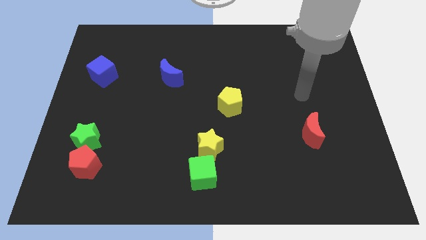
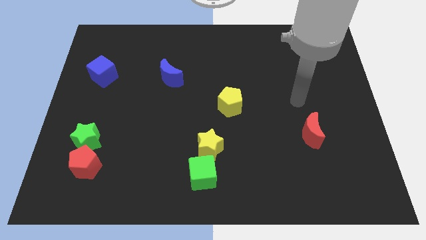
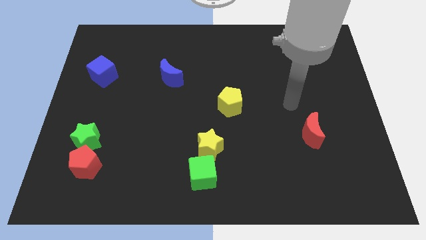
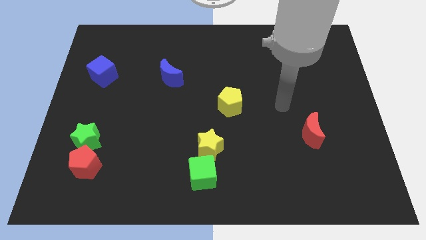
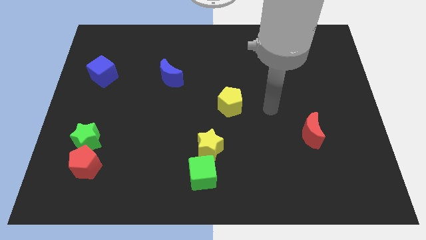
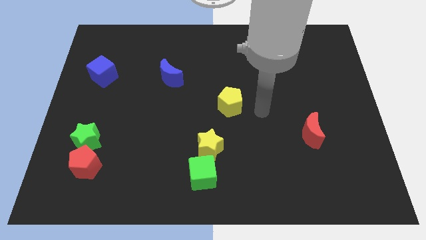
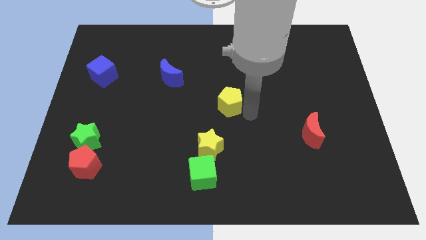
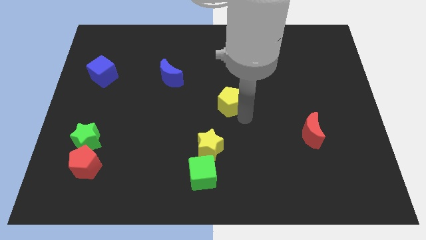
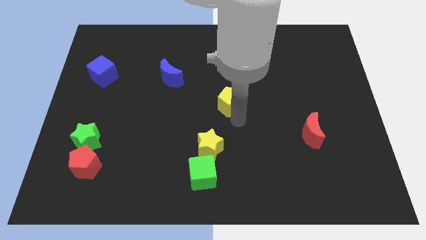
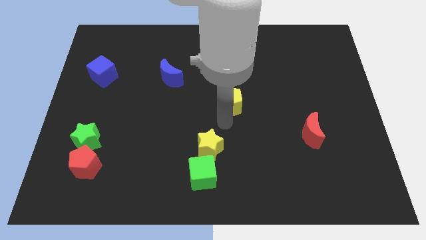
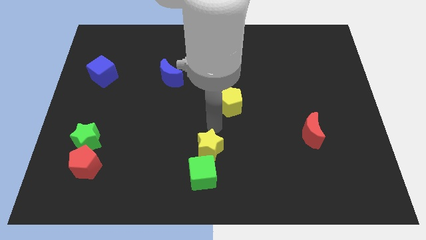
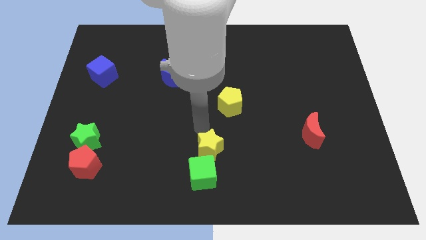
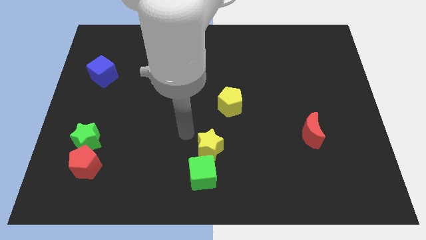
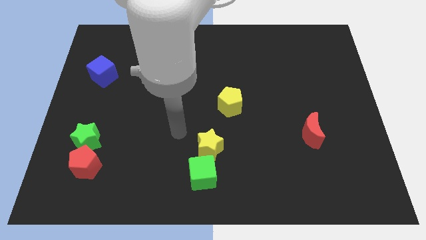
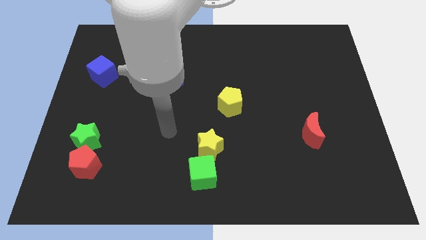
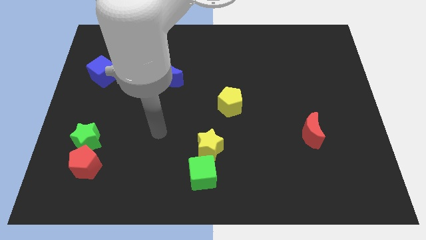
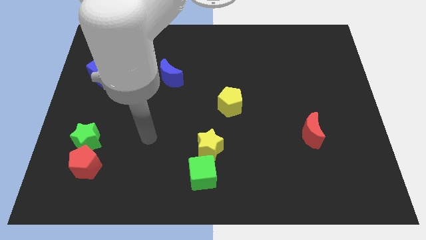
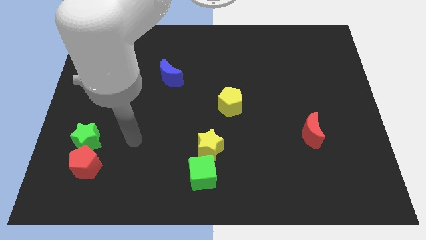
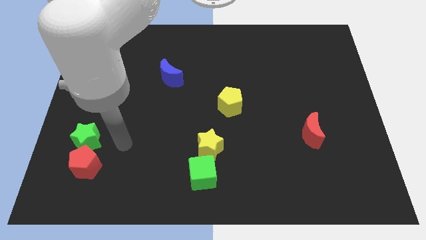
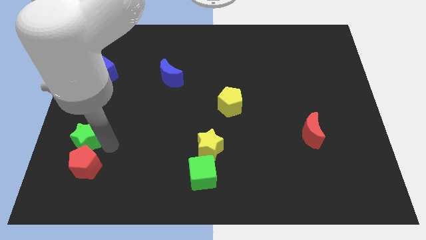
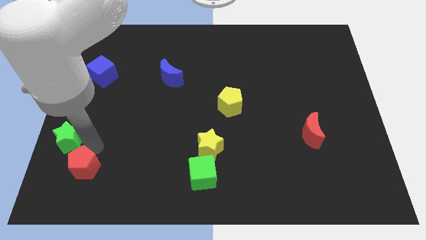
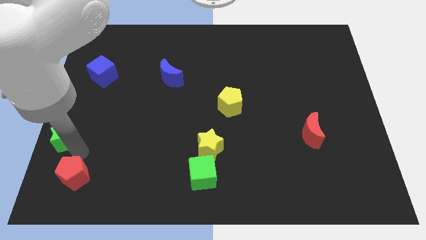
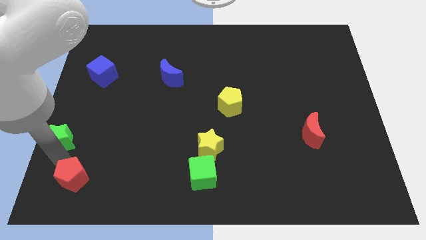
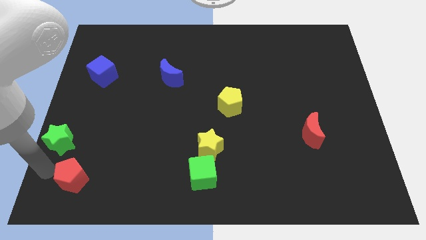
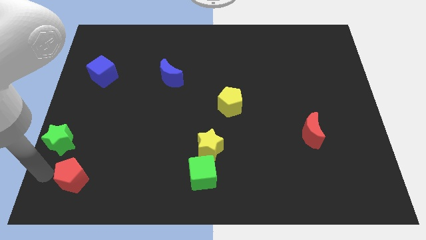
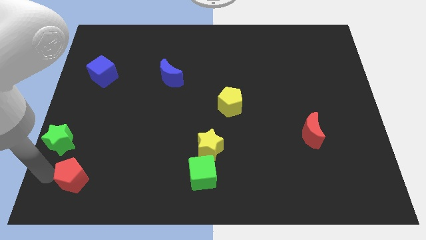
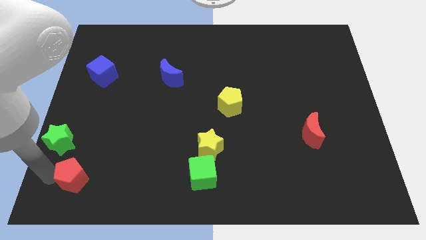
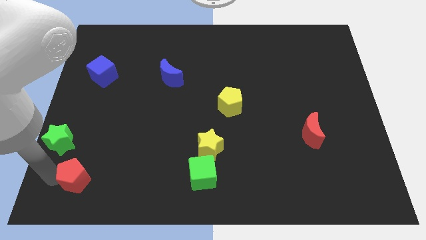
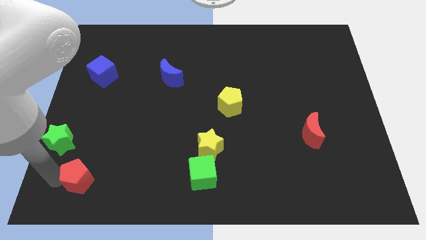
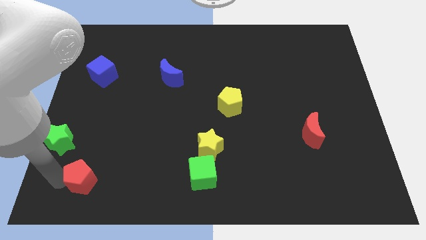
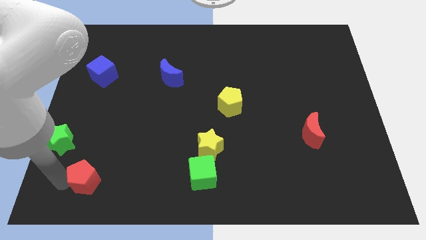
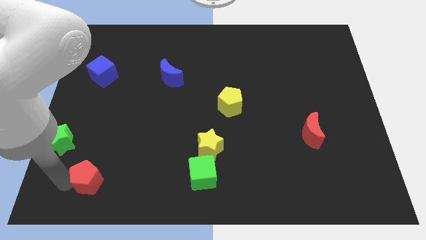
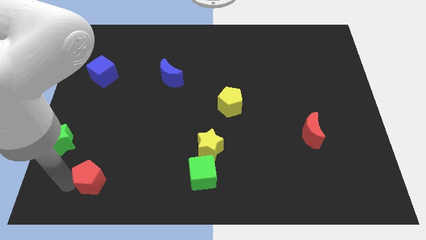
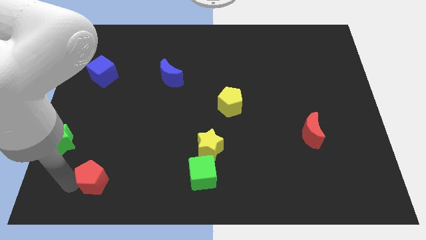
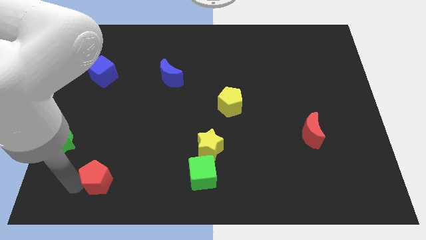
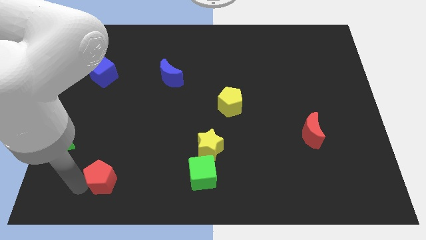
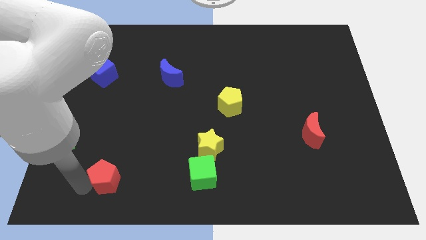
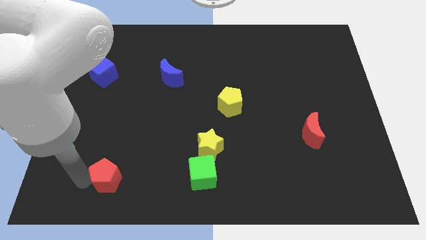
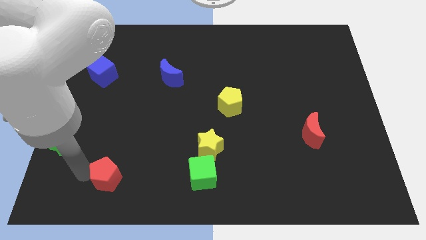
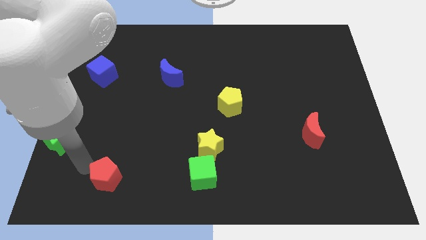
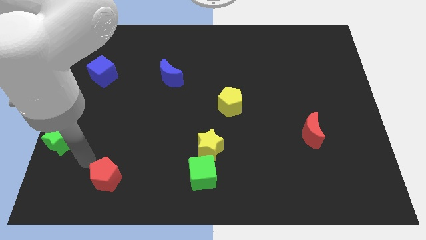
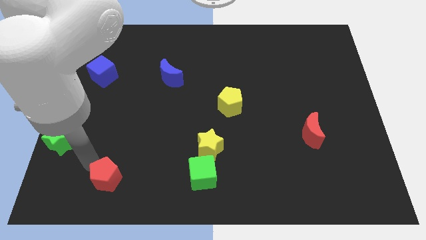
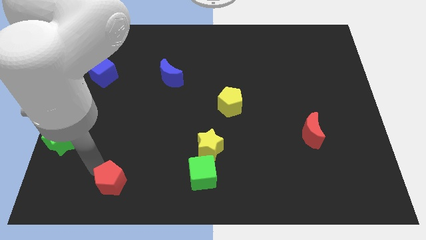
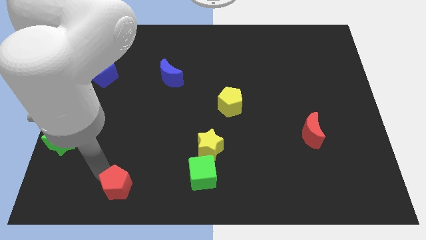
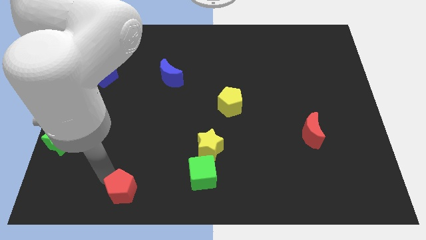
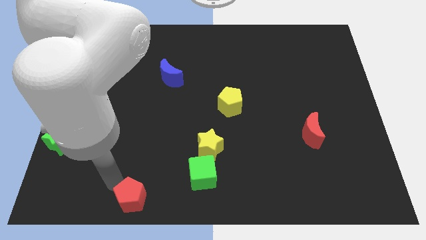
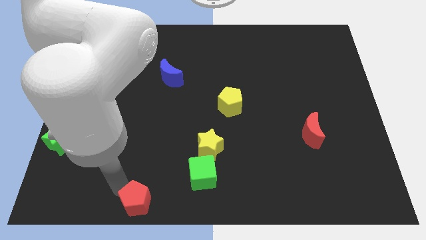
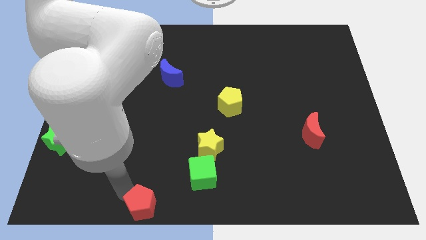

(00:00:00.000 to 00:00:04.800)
push the red pentagon to the bottom side

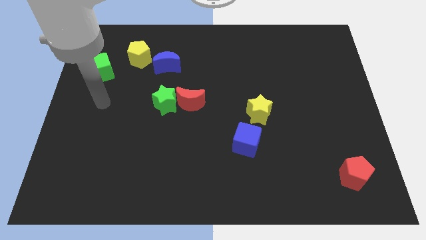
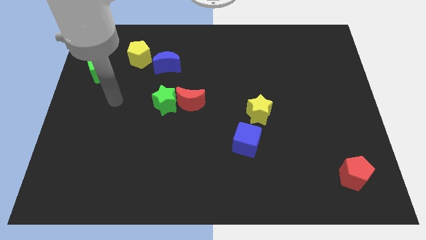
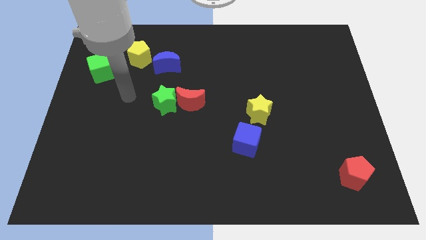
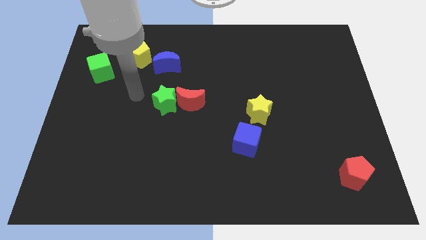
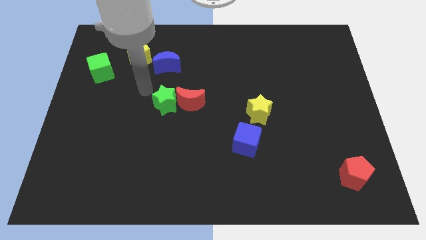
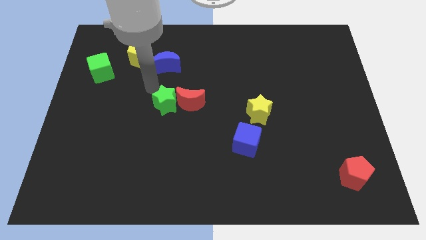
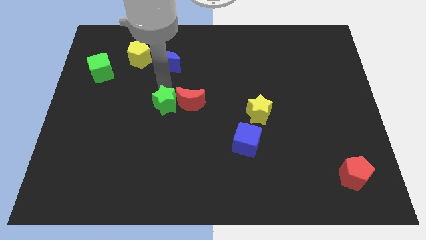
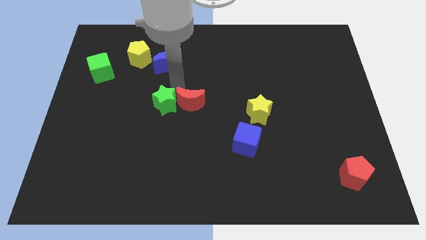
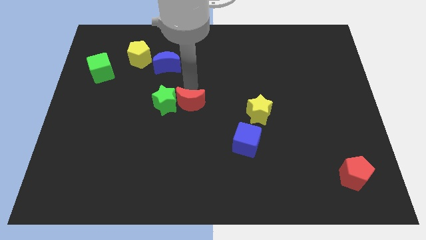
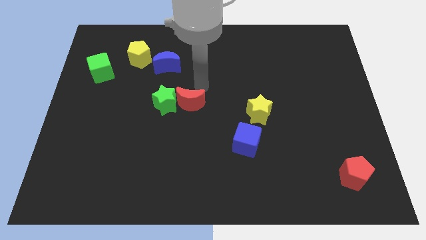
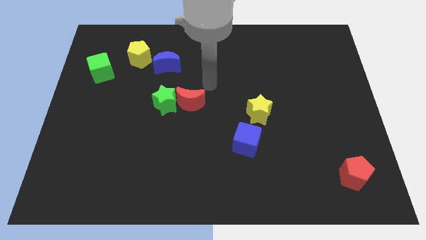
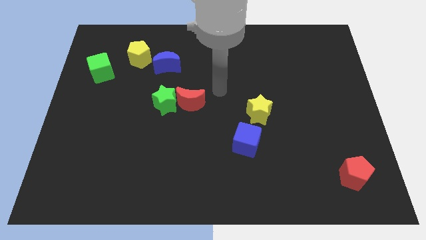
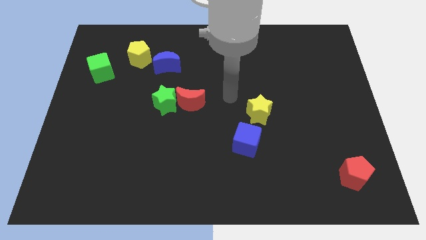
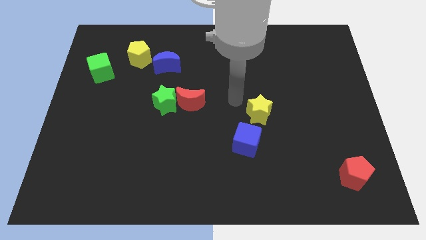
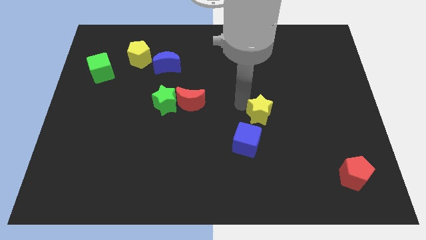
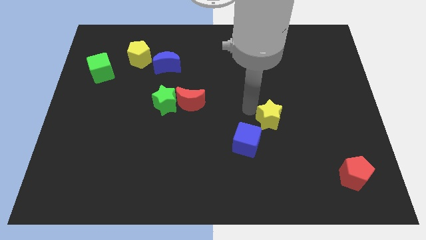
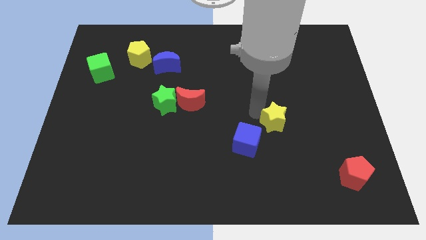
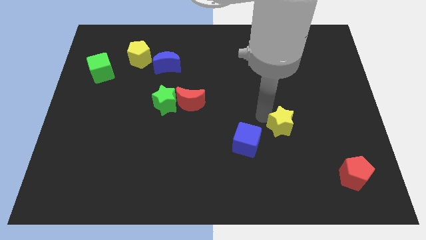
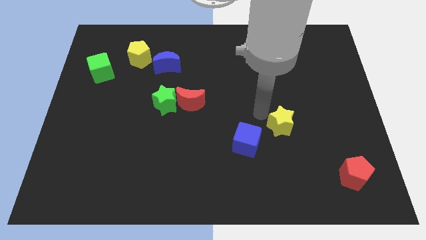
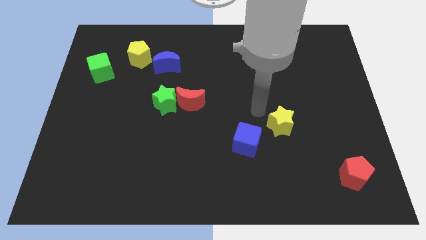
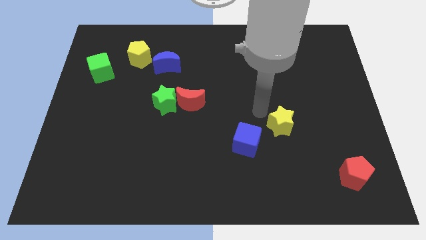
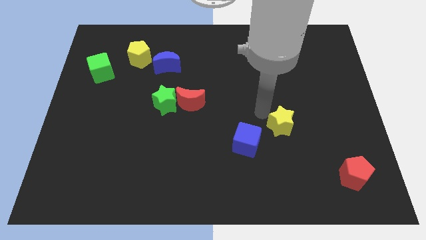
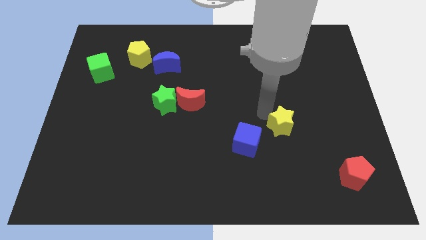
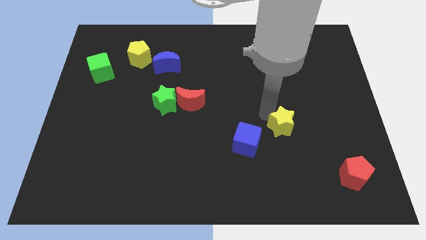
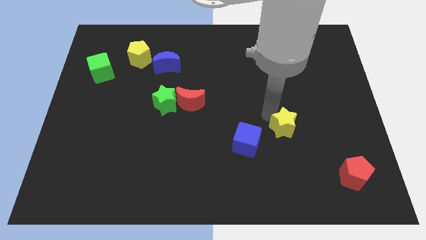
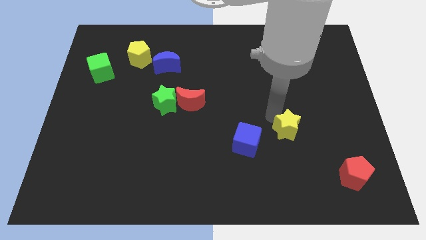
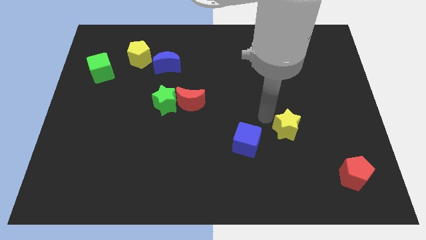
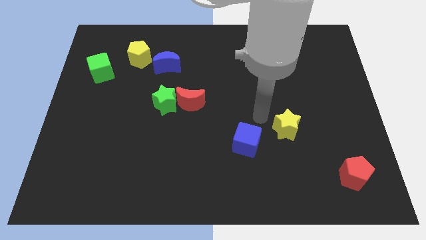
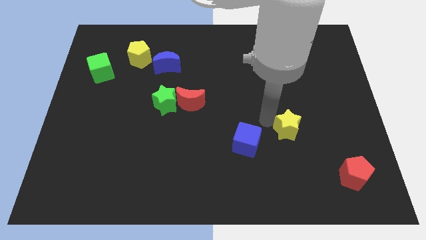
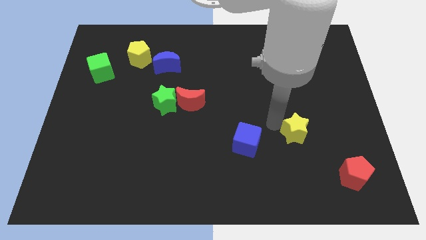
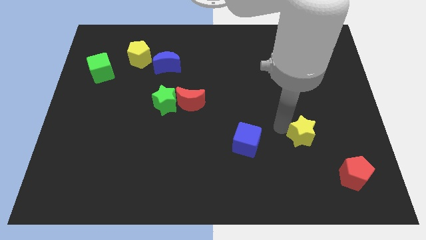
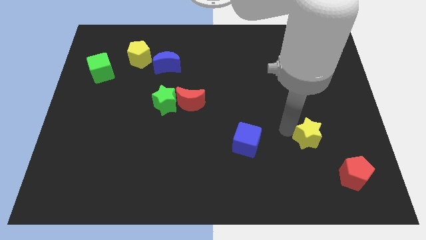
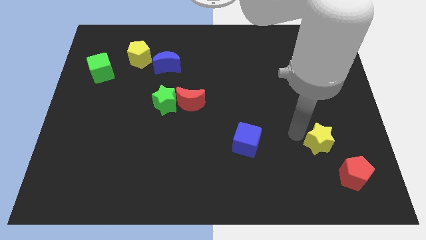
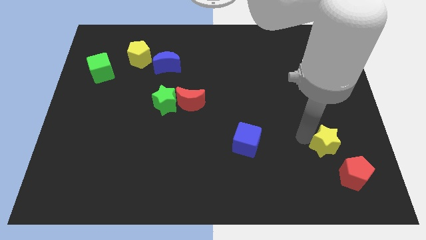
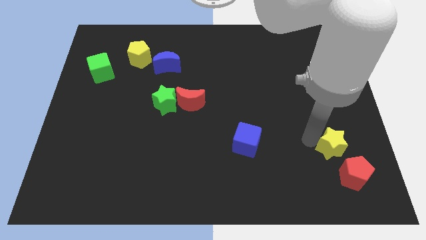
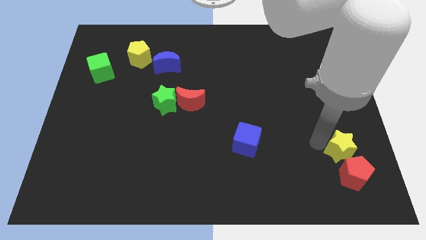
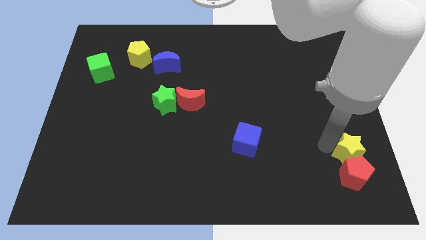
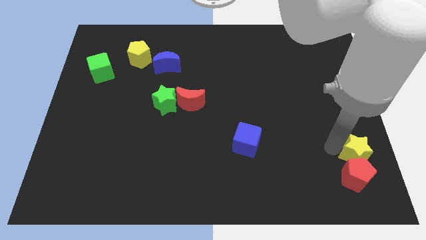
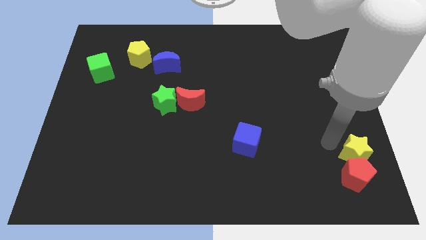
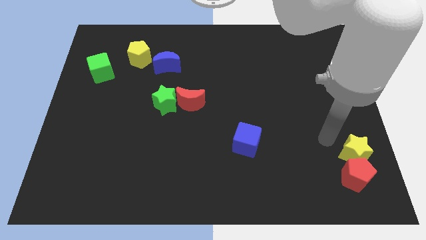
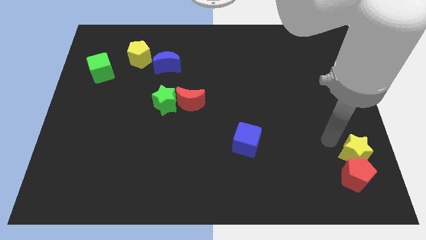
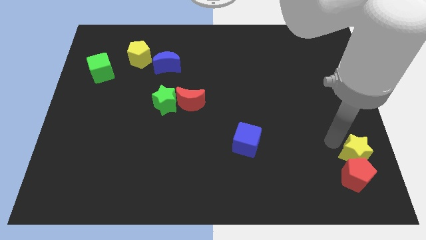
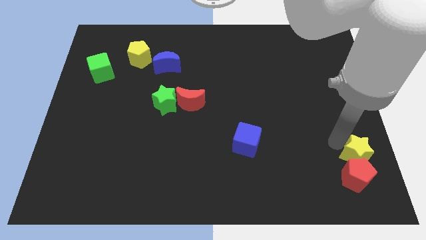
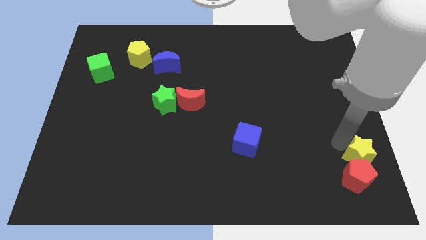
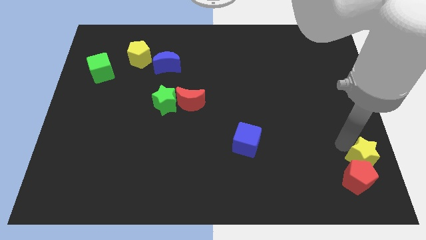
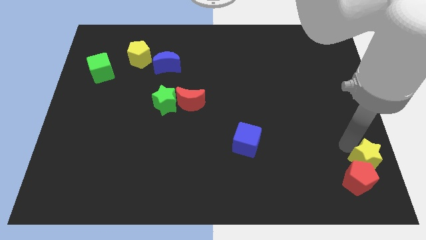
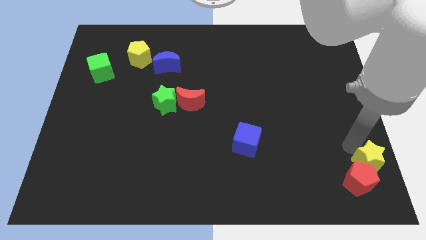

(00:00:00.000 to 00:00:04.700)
push the yellow star to the bottom right of the board
